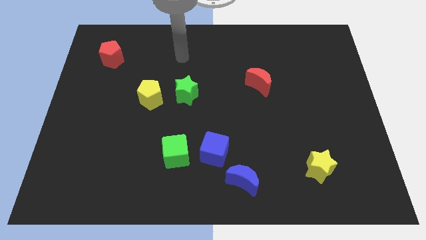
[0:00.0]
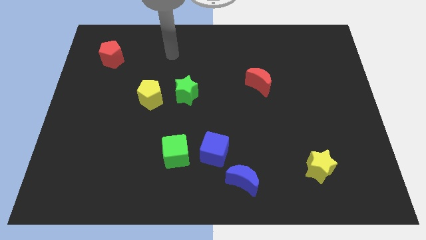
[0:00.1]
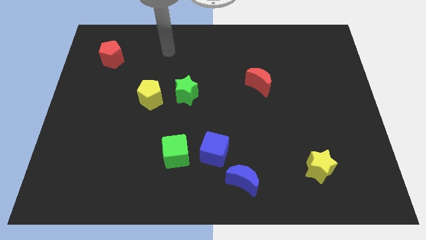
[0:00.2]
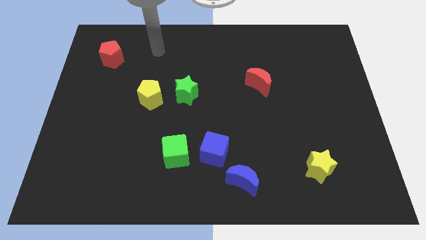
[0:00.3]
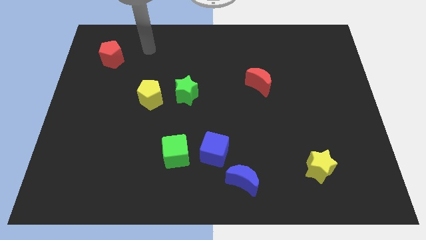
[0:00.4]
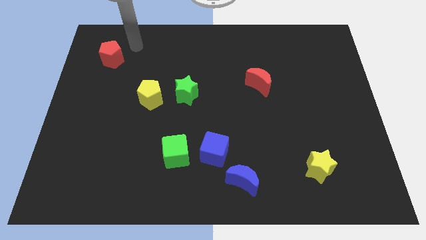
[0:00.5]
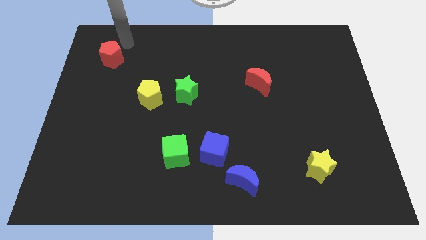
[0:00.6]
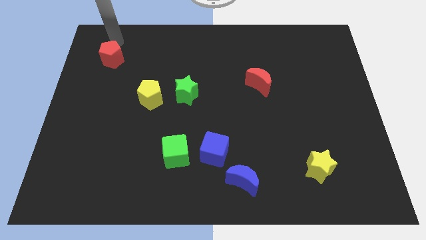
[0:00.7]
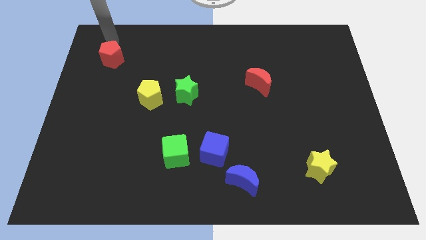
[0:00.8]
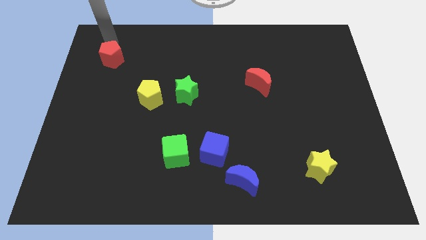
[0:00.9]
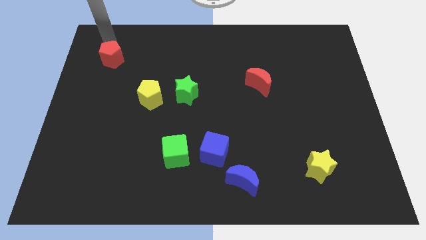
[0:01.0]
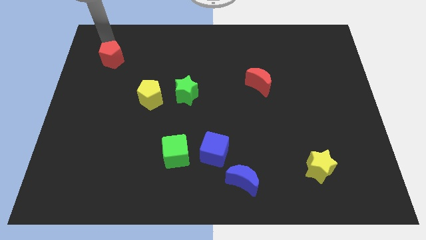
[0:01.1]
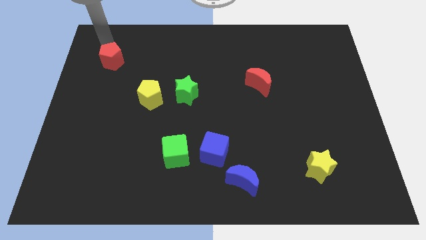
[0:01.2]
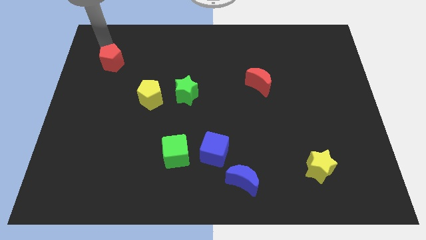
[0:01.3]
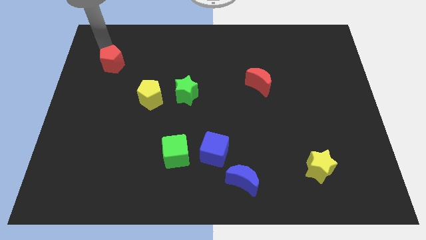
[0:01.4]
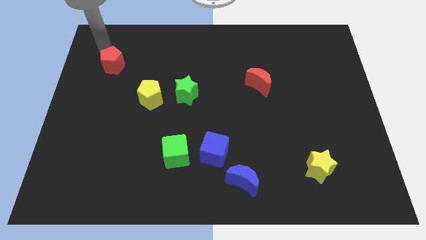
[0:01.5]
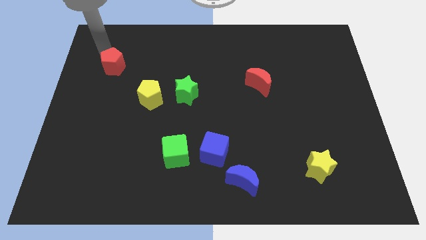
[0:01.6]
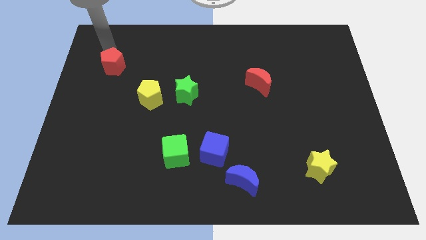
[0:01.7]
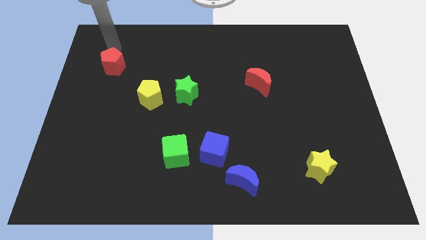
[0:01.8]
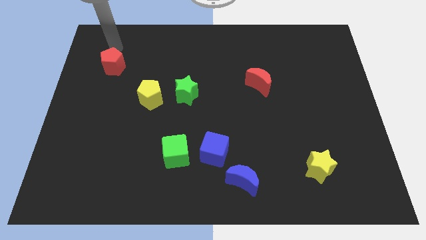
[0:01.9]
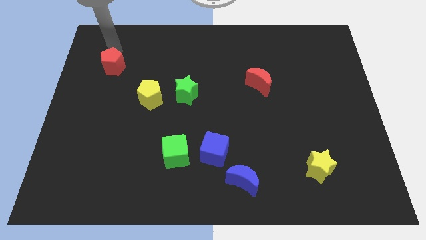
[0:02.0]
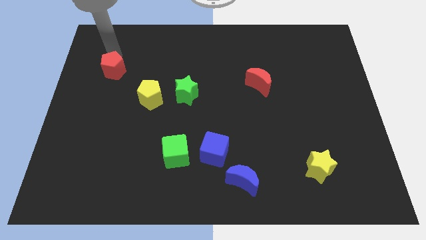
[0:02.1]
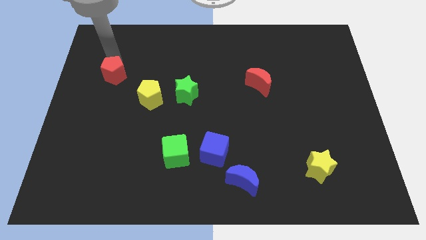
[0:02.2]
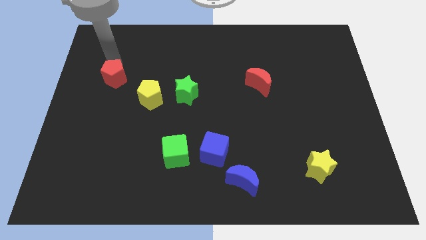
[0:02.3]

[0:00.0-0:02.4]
push the red pentagon a little down

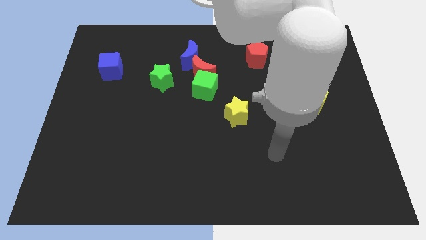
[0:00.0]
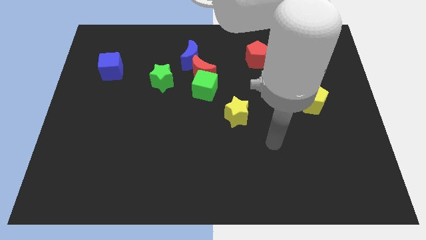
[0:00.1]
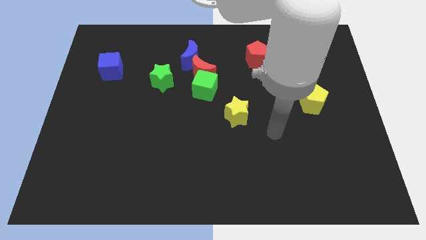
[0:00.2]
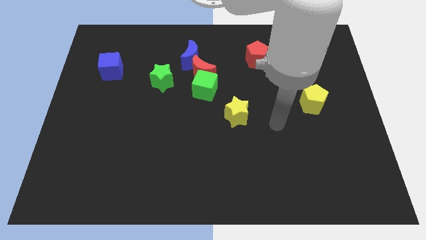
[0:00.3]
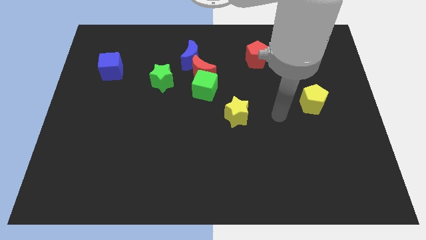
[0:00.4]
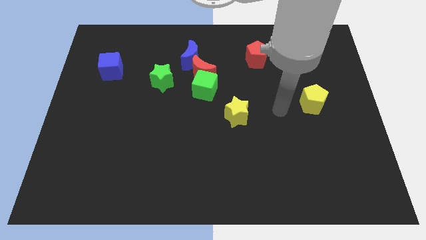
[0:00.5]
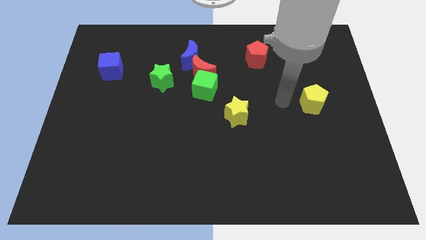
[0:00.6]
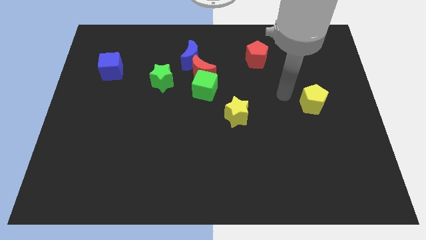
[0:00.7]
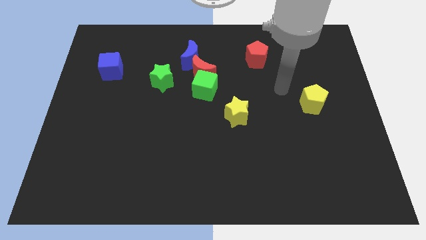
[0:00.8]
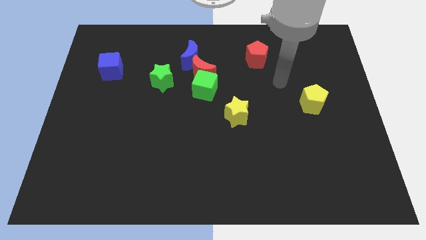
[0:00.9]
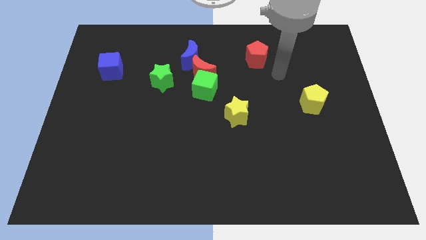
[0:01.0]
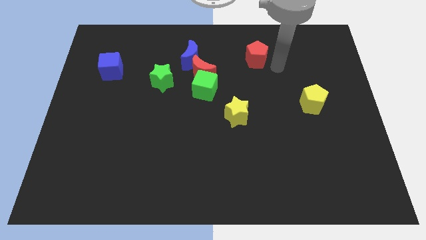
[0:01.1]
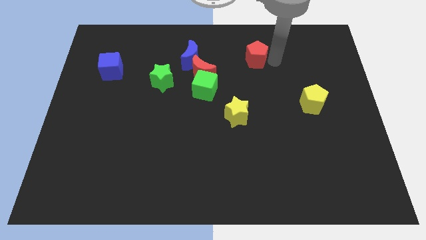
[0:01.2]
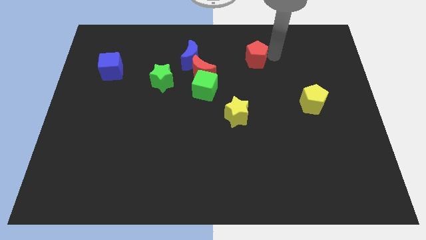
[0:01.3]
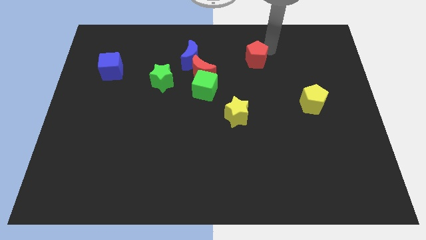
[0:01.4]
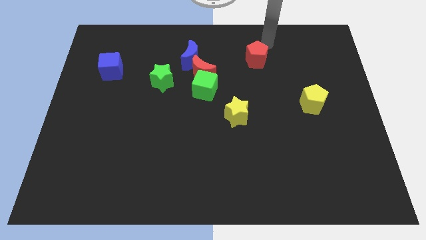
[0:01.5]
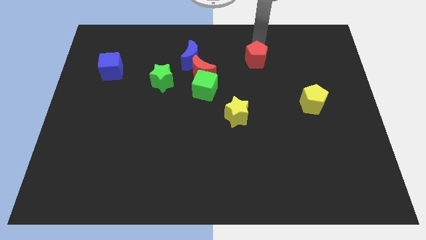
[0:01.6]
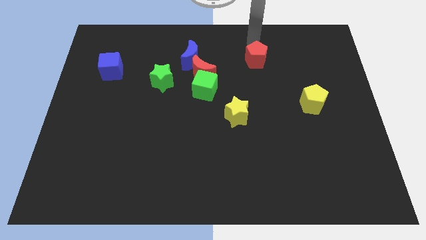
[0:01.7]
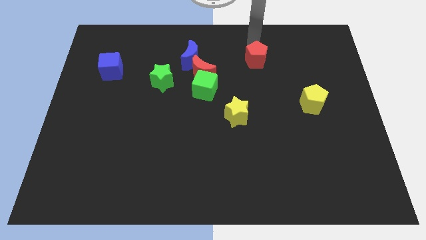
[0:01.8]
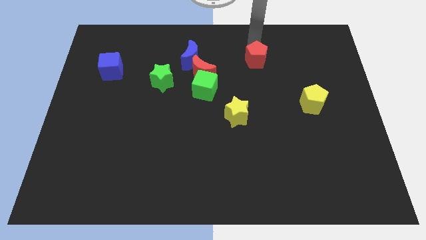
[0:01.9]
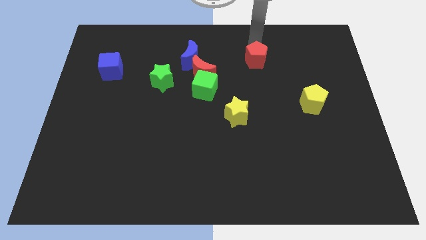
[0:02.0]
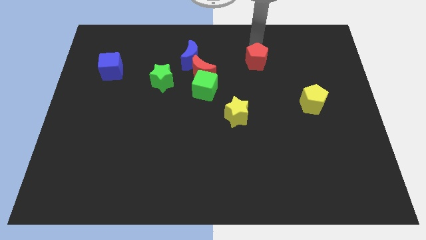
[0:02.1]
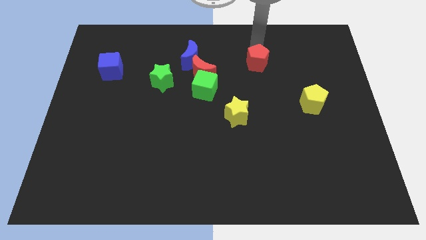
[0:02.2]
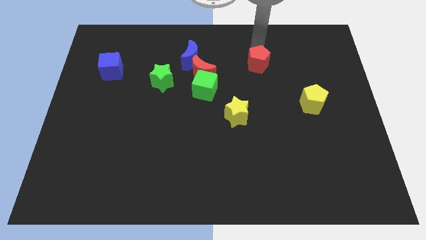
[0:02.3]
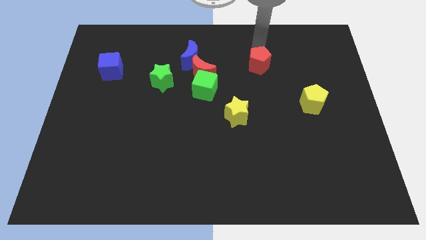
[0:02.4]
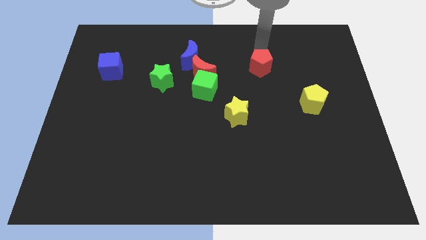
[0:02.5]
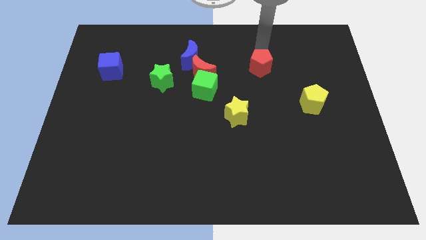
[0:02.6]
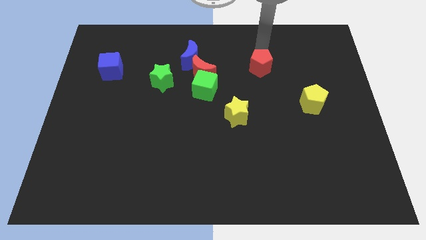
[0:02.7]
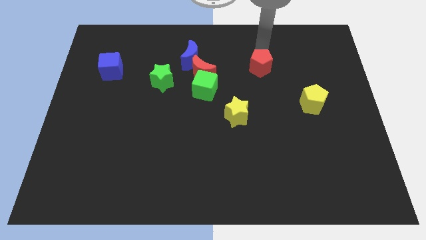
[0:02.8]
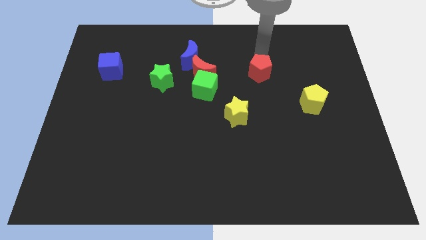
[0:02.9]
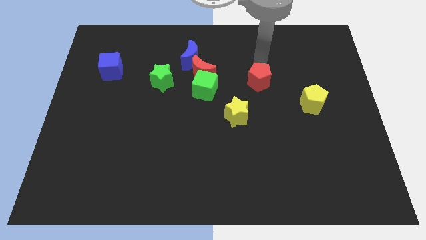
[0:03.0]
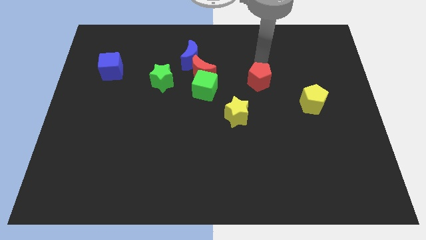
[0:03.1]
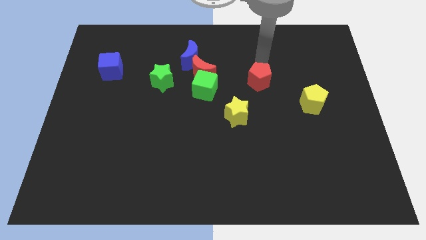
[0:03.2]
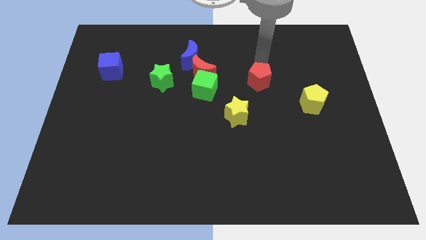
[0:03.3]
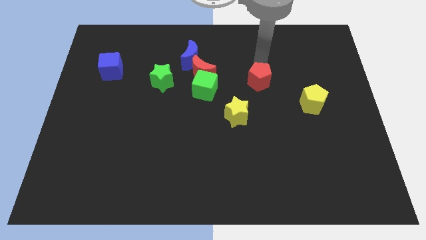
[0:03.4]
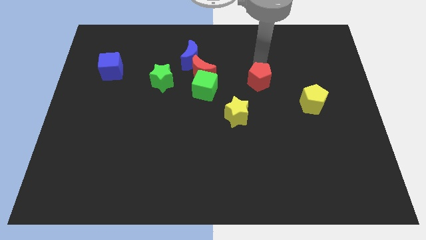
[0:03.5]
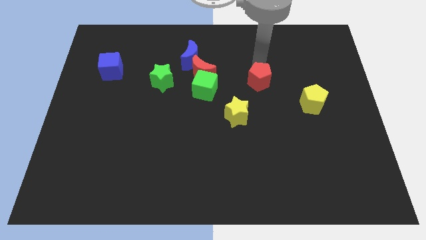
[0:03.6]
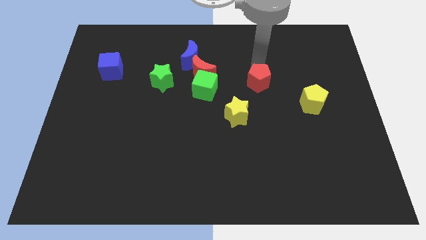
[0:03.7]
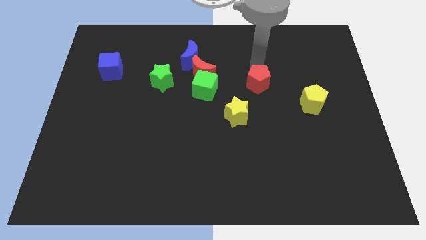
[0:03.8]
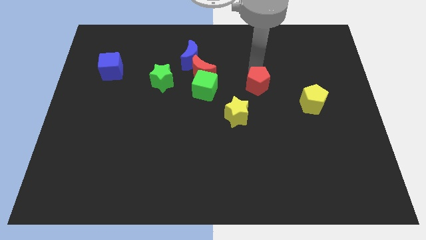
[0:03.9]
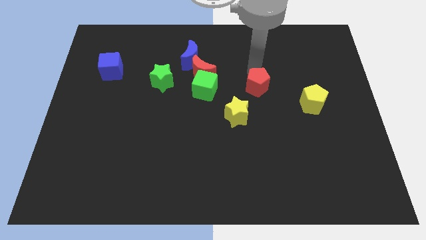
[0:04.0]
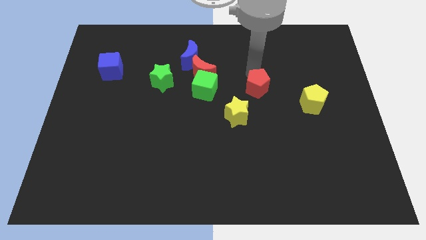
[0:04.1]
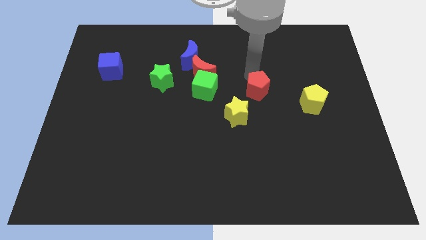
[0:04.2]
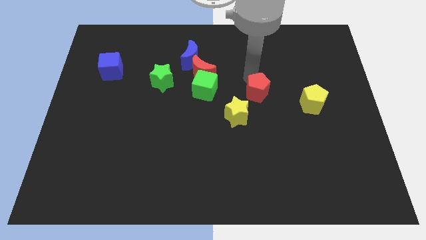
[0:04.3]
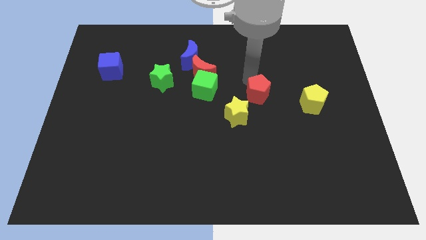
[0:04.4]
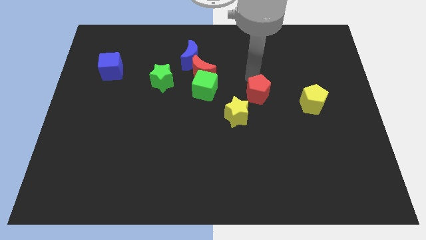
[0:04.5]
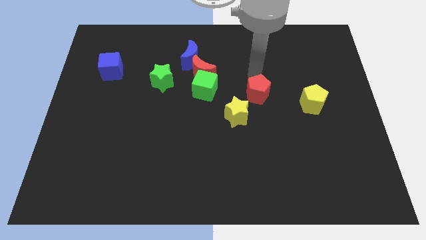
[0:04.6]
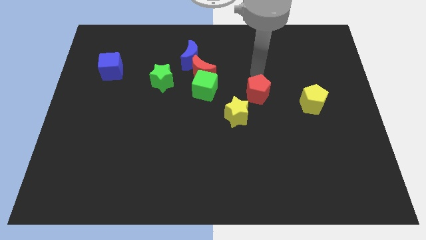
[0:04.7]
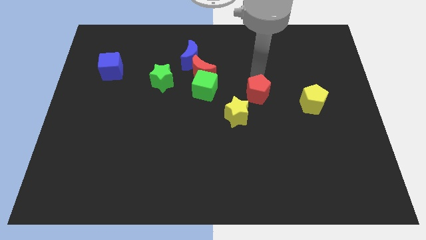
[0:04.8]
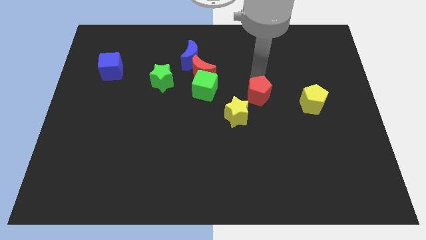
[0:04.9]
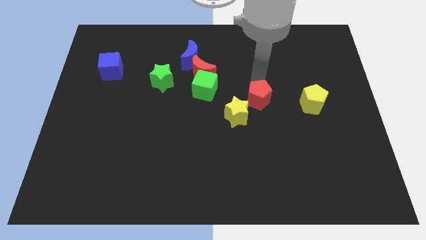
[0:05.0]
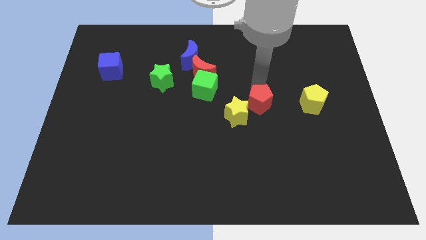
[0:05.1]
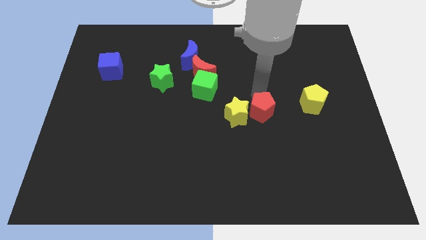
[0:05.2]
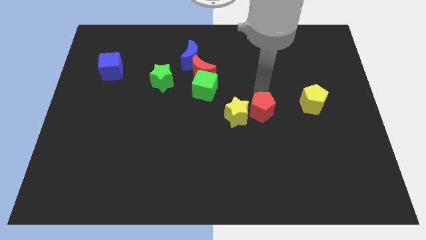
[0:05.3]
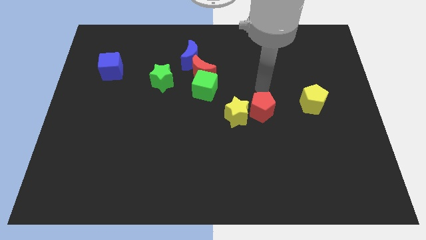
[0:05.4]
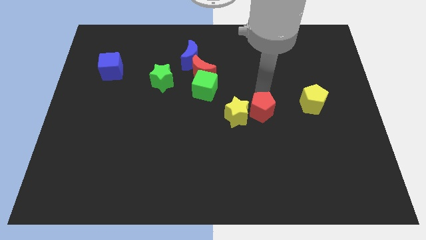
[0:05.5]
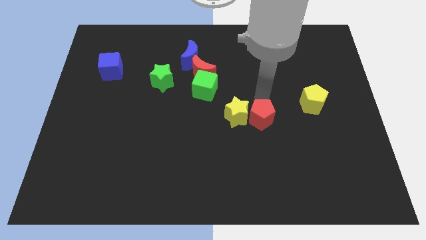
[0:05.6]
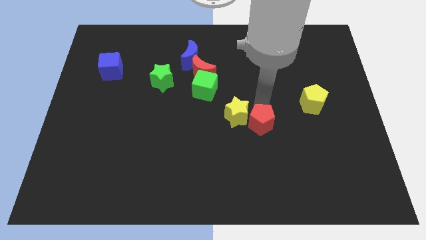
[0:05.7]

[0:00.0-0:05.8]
slide the red pentagon downwards
